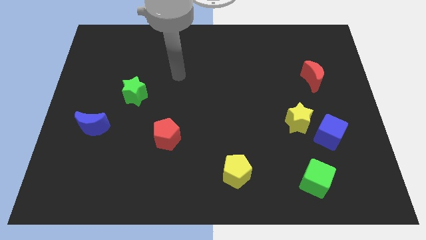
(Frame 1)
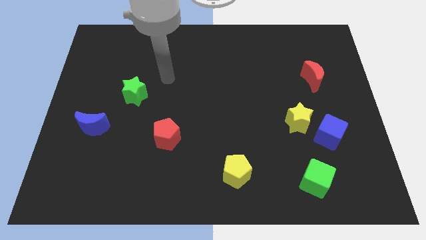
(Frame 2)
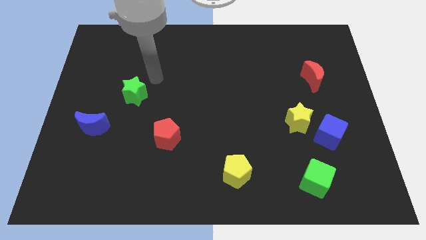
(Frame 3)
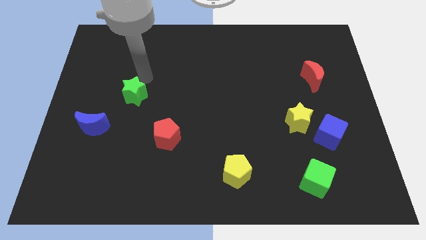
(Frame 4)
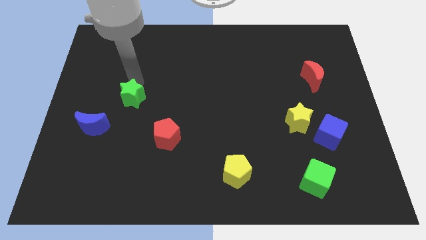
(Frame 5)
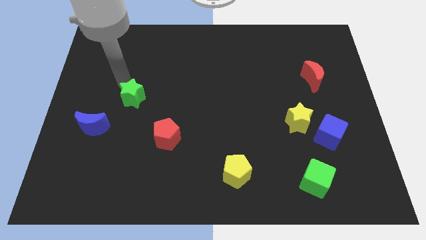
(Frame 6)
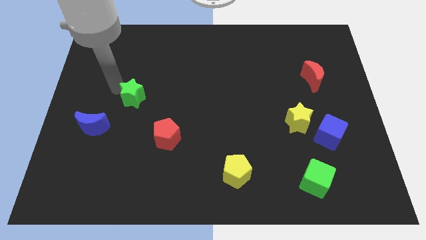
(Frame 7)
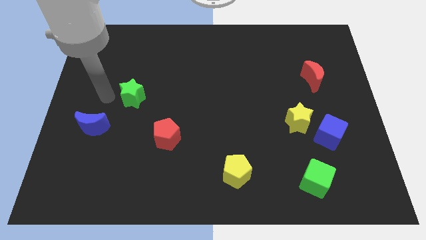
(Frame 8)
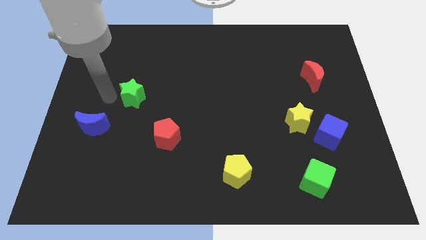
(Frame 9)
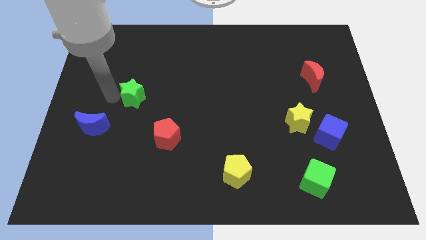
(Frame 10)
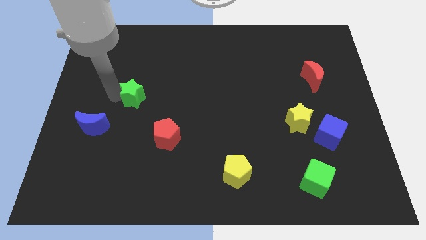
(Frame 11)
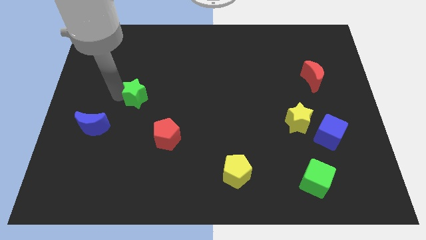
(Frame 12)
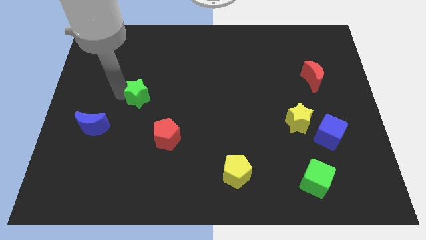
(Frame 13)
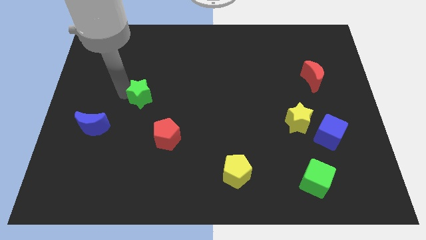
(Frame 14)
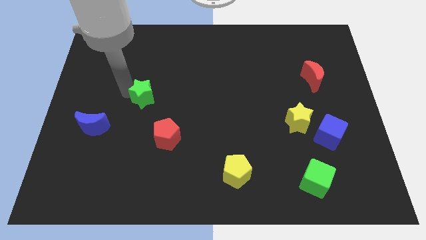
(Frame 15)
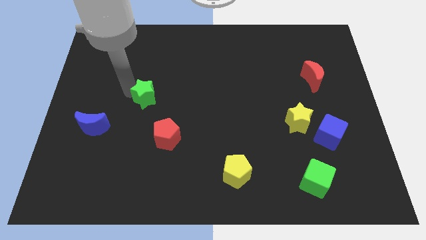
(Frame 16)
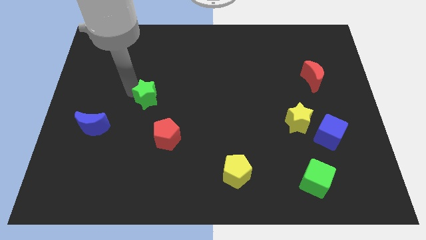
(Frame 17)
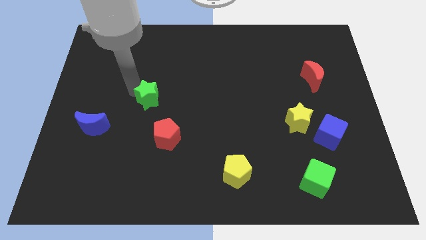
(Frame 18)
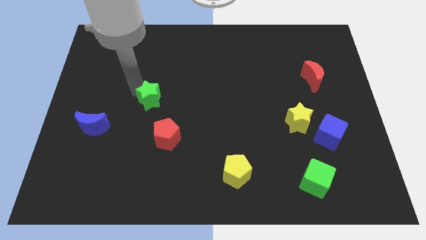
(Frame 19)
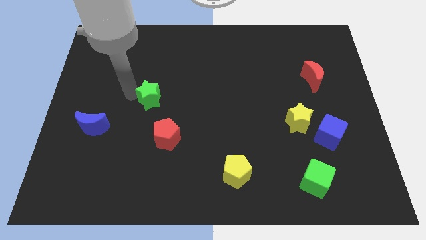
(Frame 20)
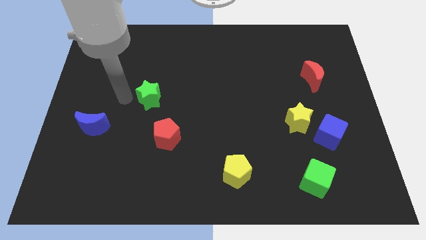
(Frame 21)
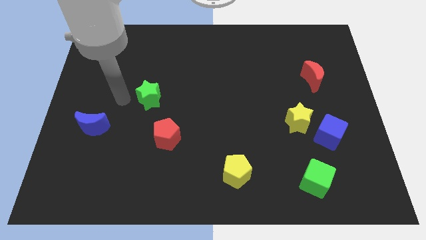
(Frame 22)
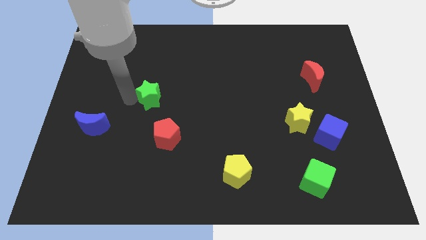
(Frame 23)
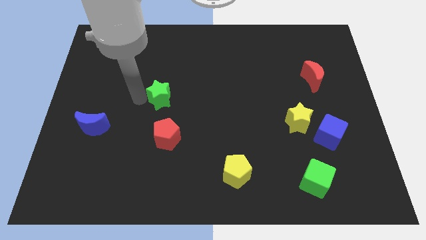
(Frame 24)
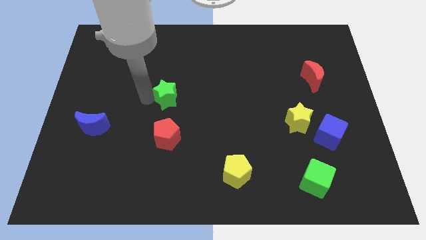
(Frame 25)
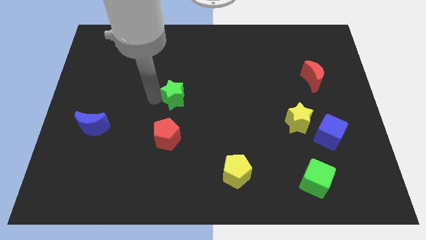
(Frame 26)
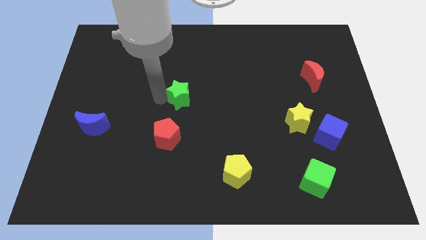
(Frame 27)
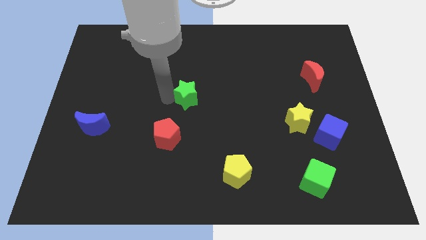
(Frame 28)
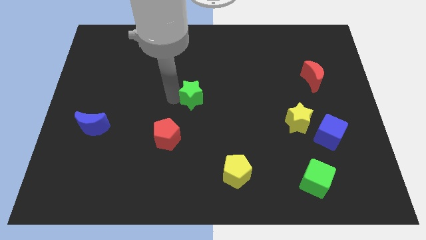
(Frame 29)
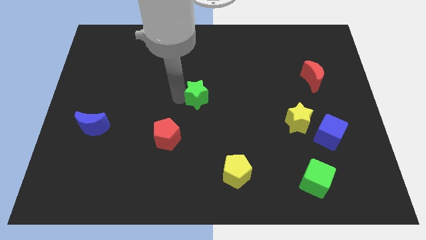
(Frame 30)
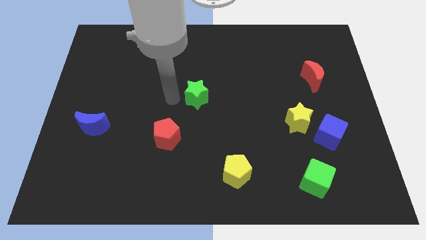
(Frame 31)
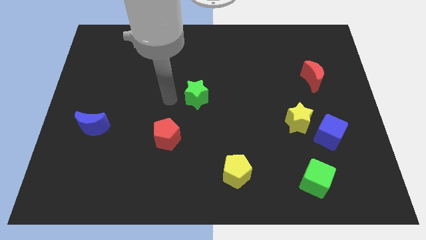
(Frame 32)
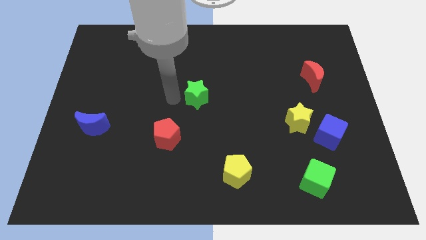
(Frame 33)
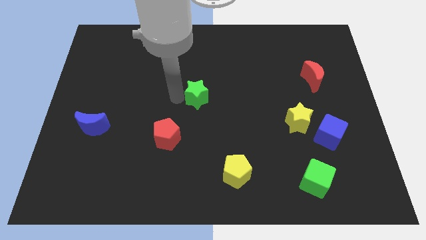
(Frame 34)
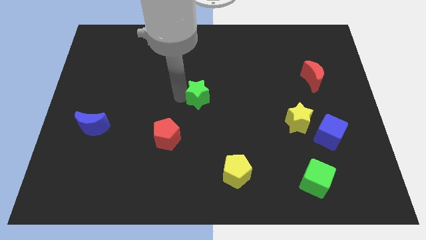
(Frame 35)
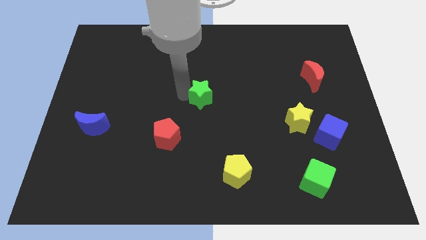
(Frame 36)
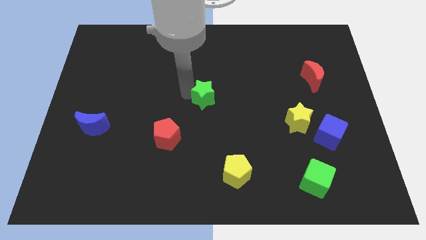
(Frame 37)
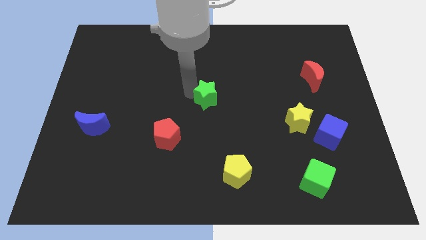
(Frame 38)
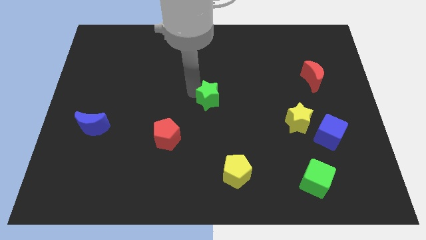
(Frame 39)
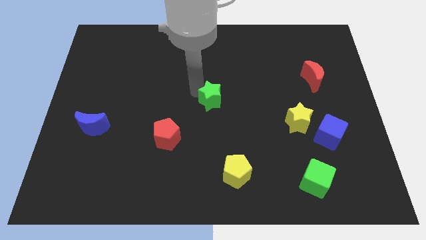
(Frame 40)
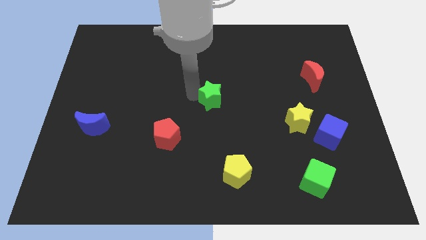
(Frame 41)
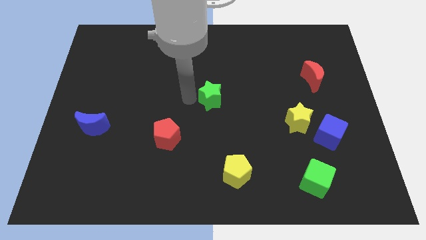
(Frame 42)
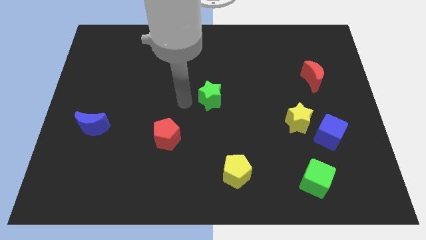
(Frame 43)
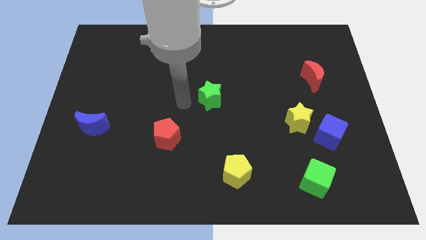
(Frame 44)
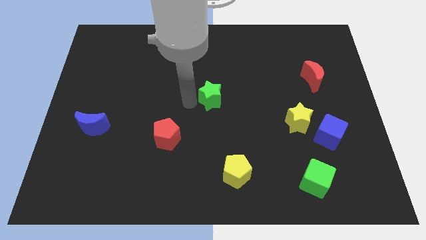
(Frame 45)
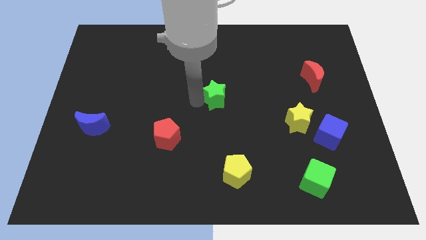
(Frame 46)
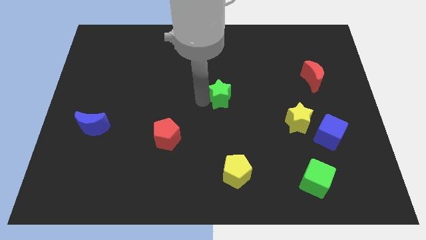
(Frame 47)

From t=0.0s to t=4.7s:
slide the green star to the right

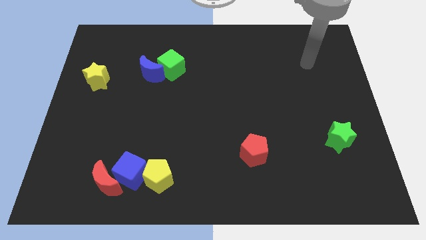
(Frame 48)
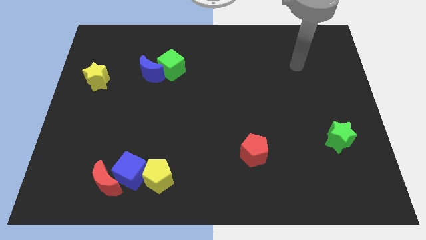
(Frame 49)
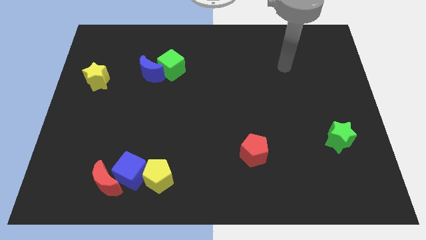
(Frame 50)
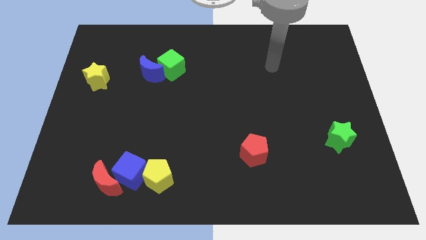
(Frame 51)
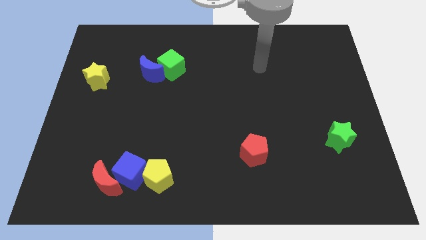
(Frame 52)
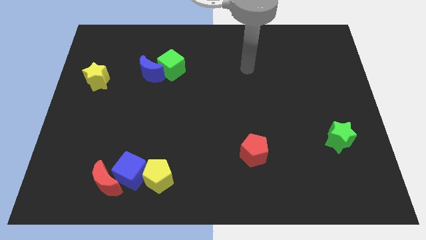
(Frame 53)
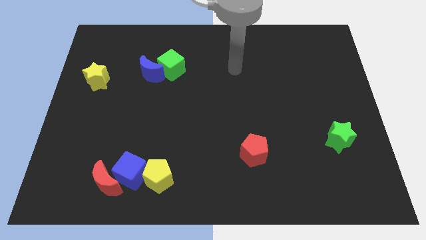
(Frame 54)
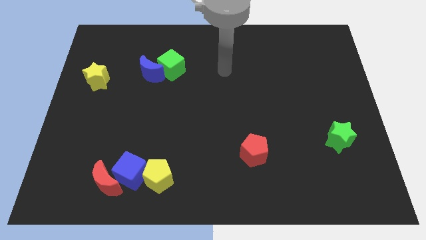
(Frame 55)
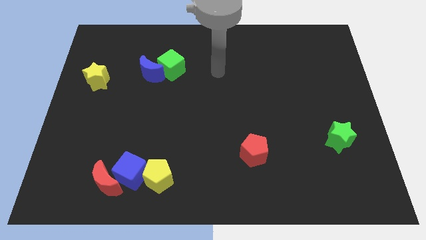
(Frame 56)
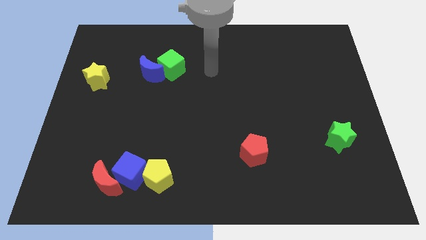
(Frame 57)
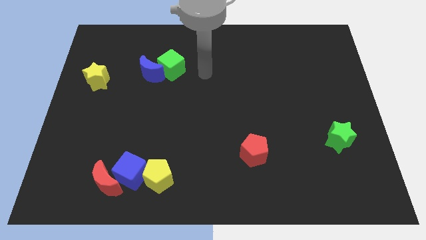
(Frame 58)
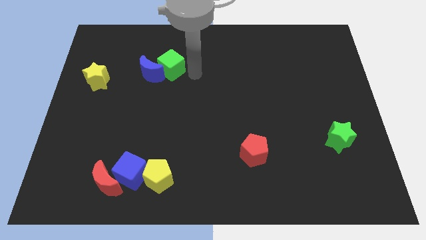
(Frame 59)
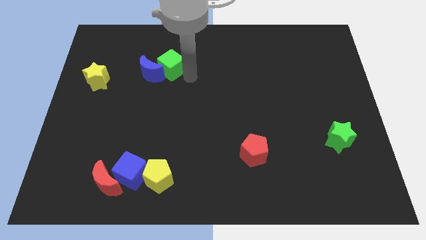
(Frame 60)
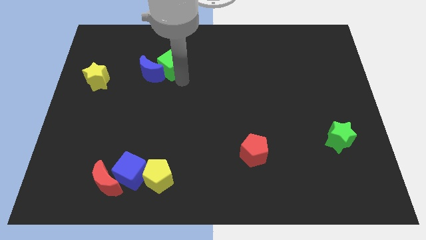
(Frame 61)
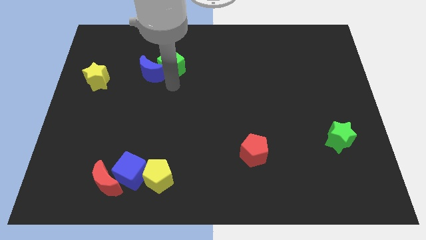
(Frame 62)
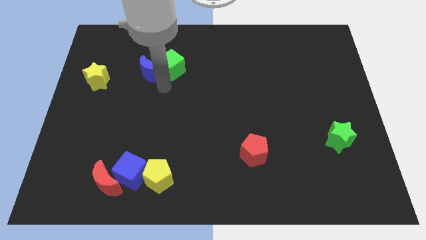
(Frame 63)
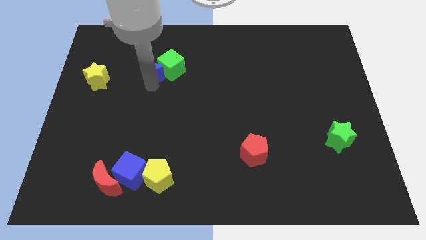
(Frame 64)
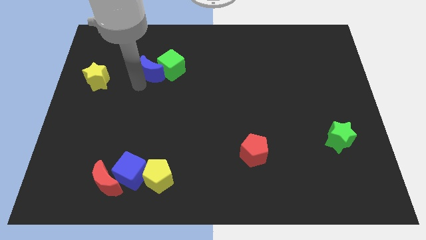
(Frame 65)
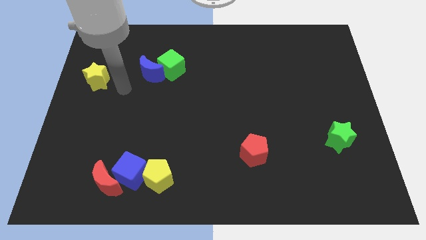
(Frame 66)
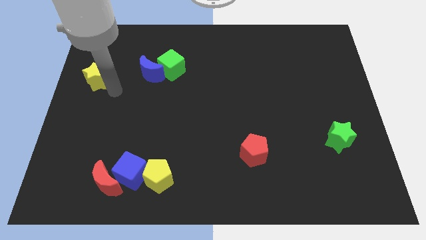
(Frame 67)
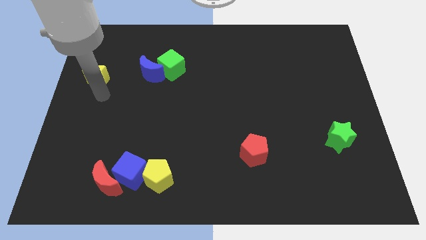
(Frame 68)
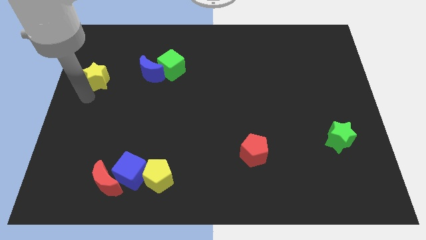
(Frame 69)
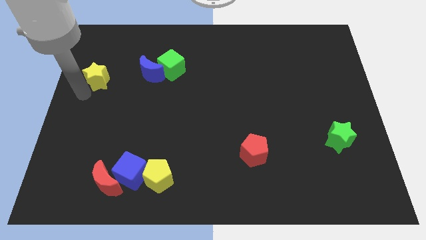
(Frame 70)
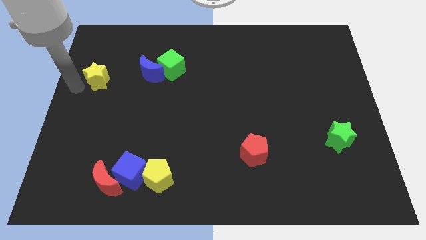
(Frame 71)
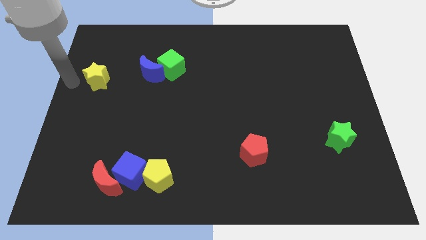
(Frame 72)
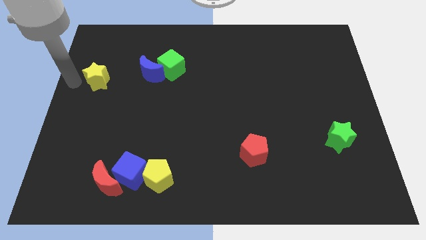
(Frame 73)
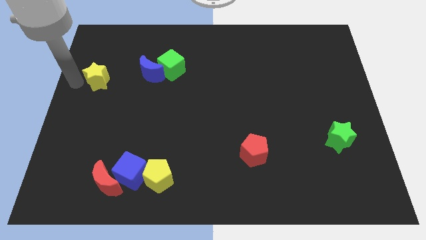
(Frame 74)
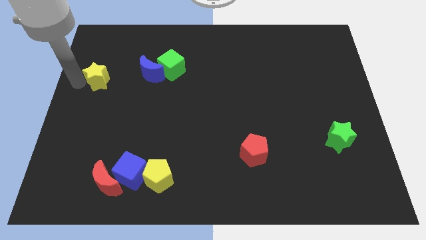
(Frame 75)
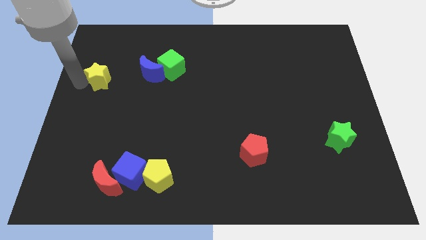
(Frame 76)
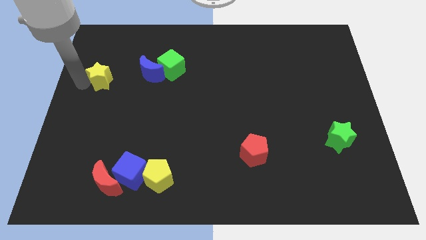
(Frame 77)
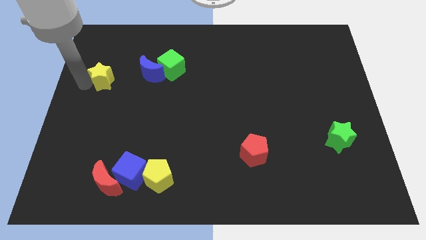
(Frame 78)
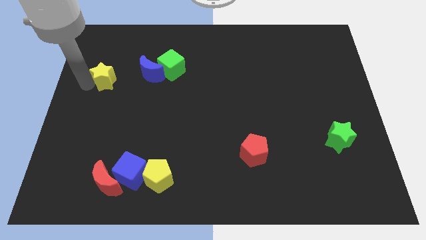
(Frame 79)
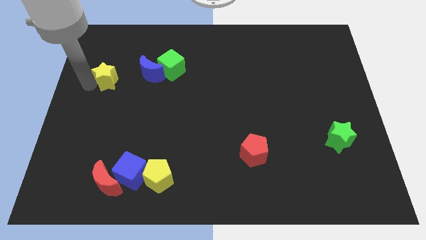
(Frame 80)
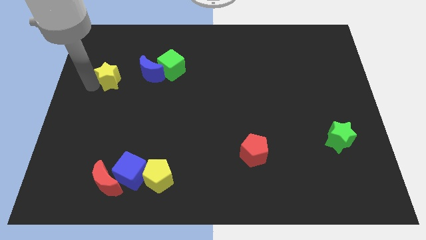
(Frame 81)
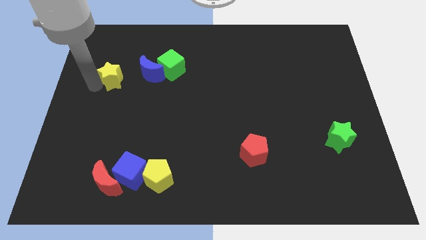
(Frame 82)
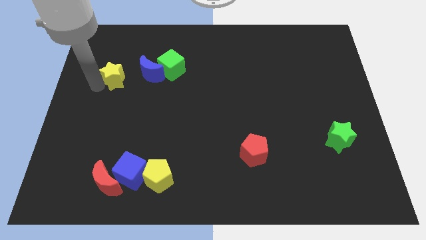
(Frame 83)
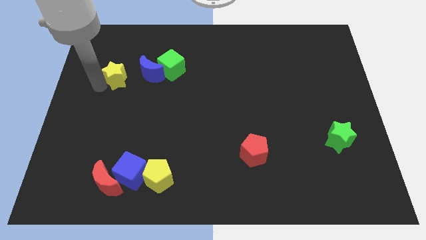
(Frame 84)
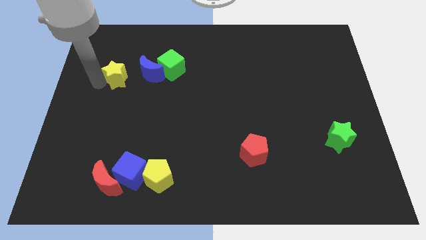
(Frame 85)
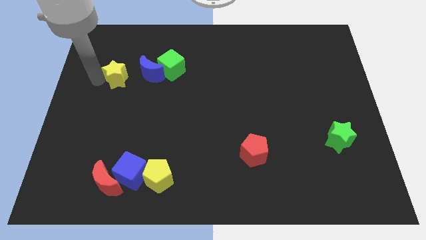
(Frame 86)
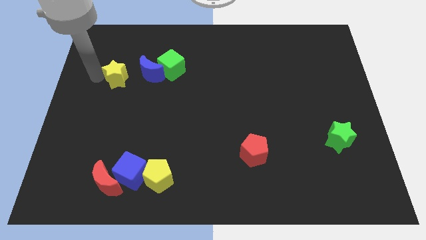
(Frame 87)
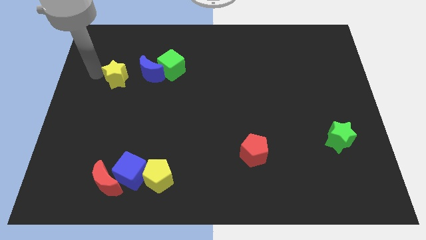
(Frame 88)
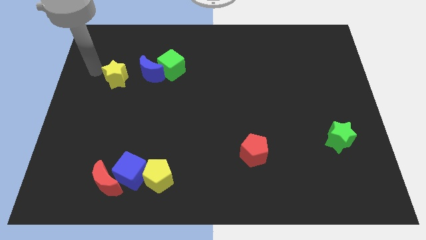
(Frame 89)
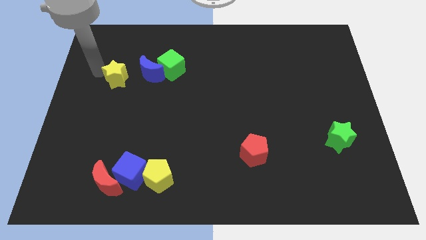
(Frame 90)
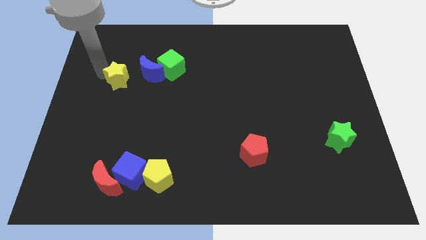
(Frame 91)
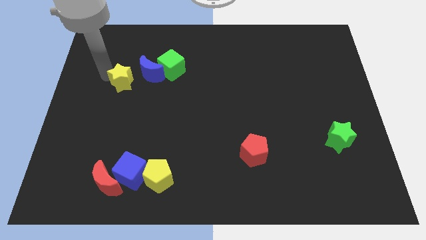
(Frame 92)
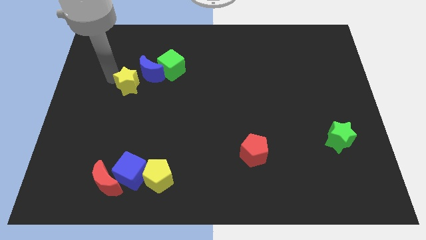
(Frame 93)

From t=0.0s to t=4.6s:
push the yellow star a little bit right
